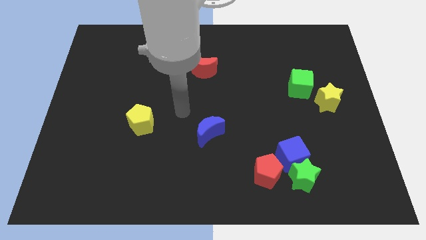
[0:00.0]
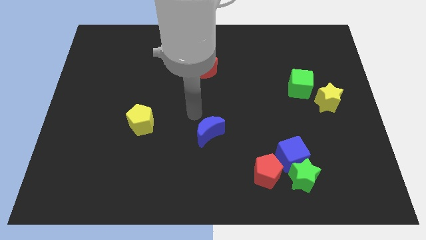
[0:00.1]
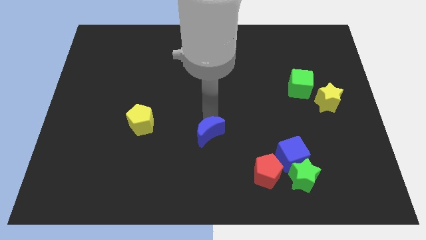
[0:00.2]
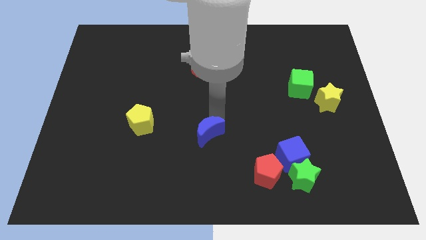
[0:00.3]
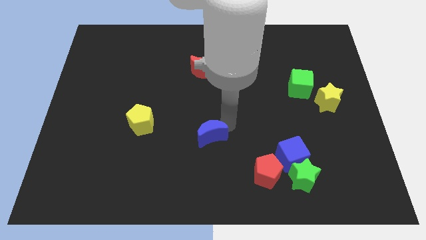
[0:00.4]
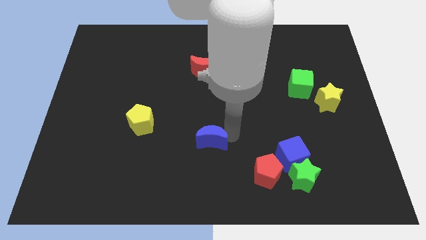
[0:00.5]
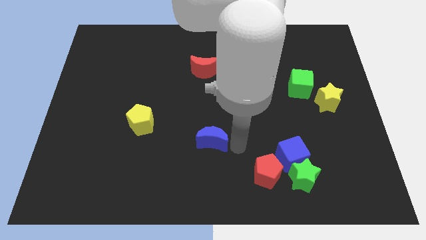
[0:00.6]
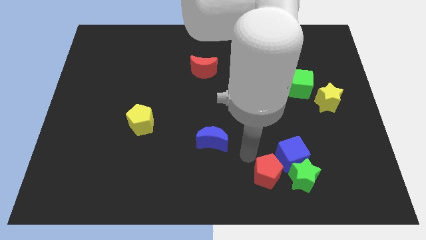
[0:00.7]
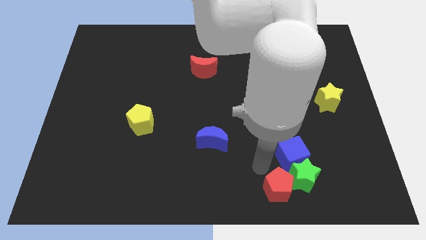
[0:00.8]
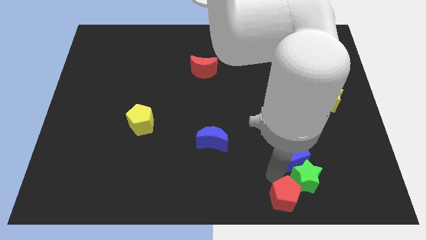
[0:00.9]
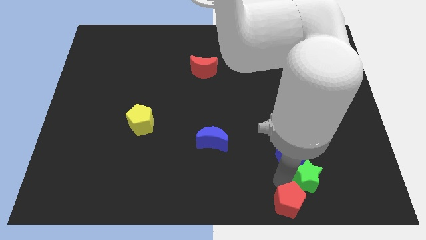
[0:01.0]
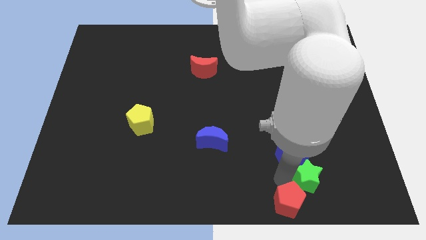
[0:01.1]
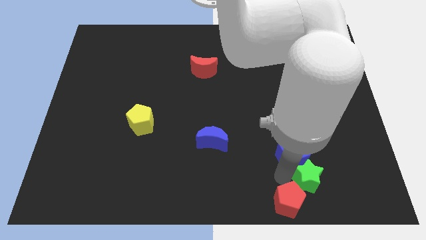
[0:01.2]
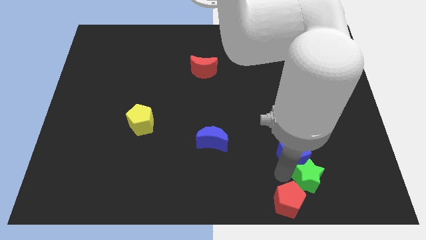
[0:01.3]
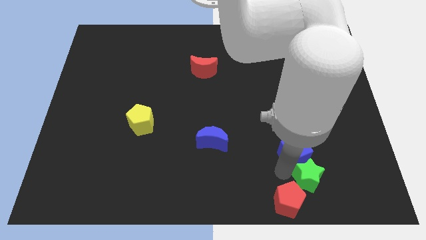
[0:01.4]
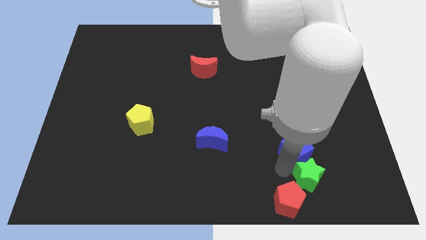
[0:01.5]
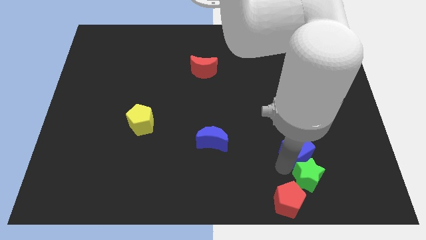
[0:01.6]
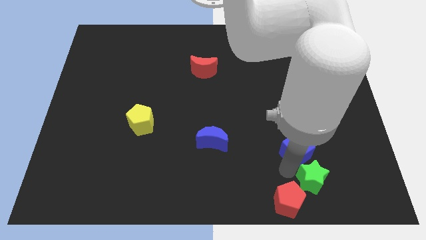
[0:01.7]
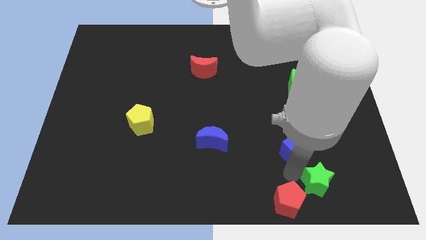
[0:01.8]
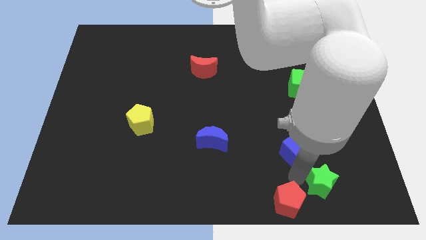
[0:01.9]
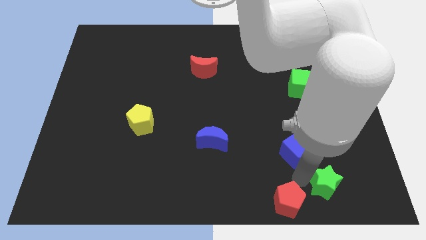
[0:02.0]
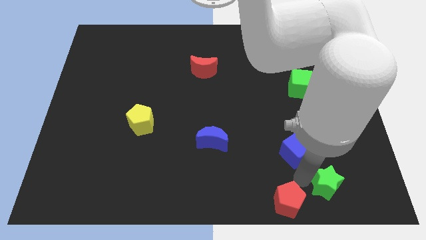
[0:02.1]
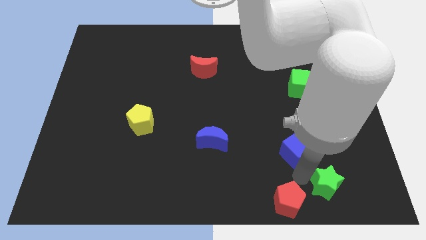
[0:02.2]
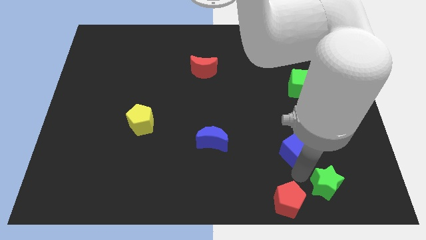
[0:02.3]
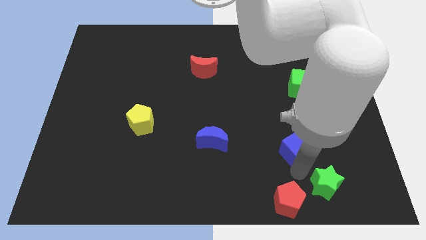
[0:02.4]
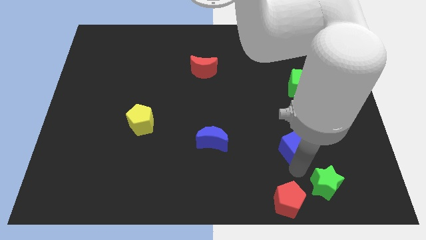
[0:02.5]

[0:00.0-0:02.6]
pull the blue cube apart from the green star and red pentagon

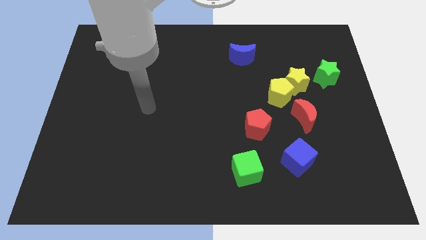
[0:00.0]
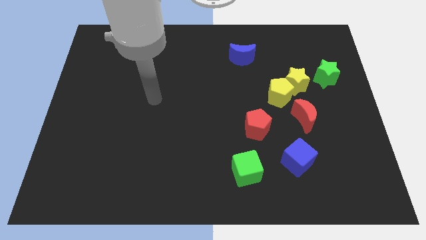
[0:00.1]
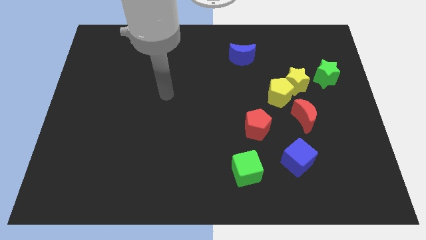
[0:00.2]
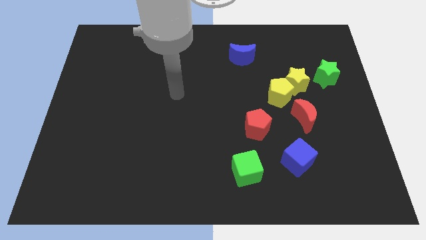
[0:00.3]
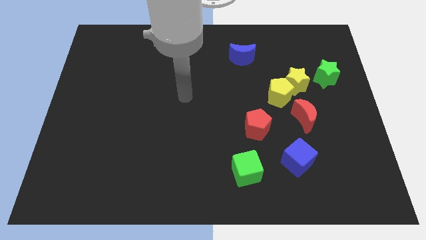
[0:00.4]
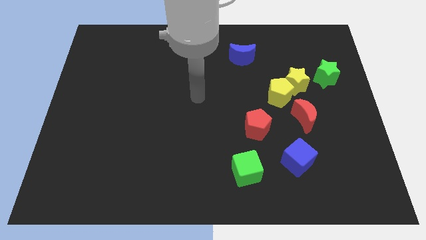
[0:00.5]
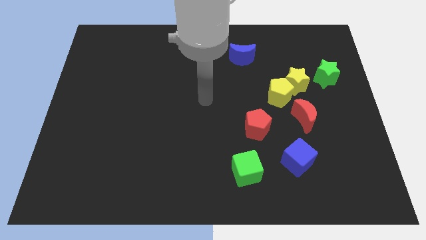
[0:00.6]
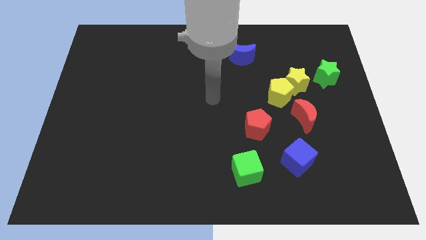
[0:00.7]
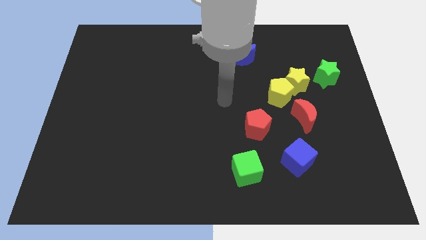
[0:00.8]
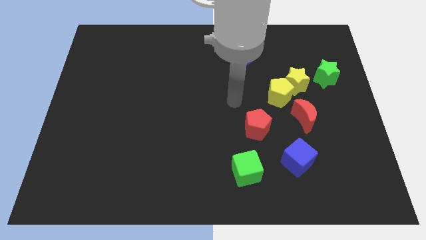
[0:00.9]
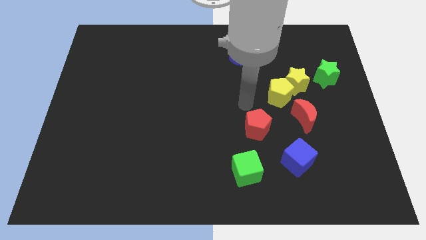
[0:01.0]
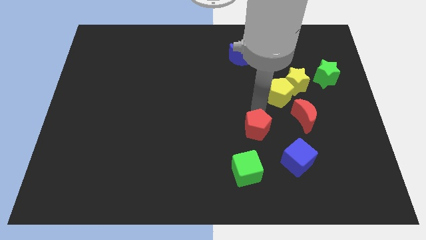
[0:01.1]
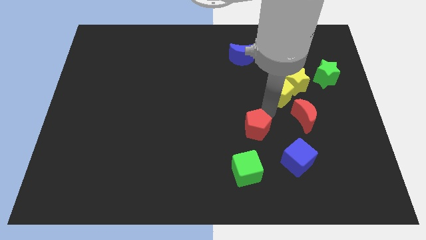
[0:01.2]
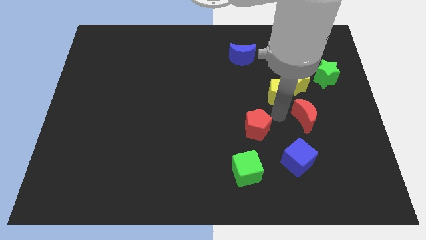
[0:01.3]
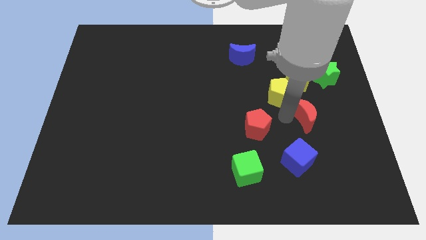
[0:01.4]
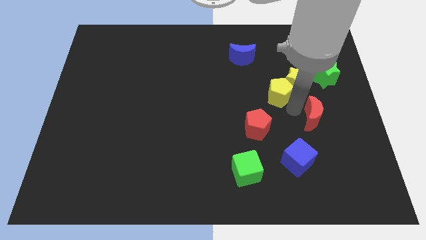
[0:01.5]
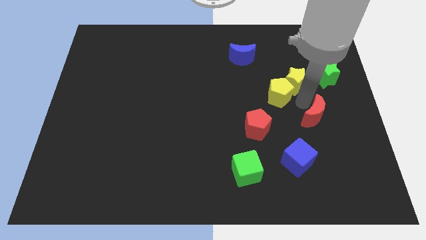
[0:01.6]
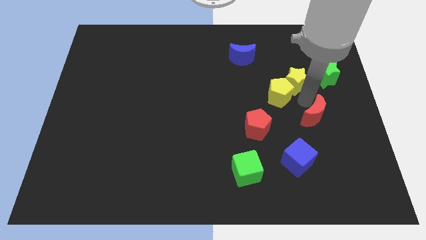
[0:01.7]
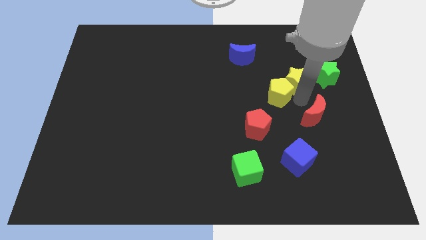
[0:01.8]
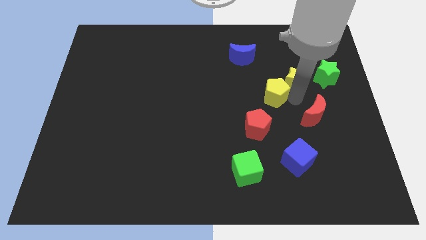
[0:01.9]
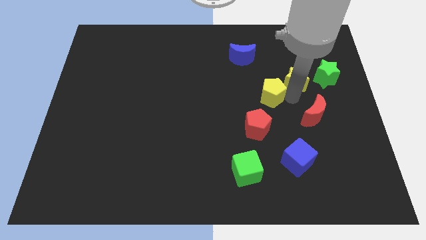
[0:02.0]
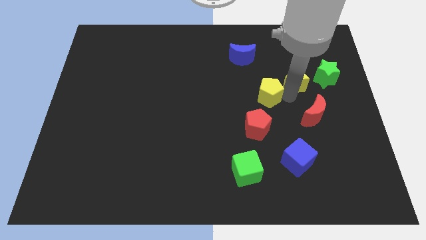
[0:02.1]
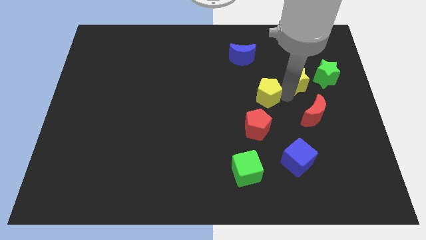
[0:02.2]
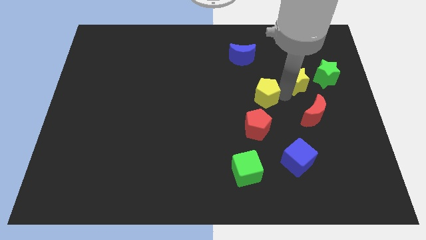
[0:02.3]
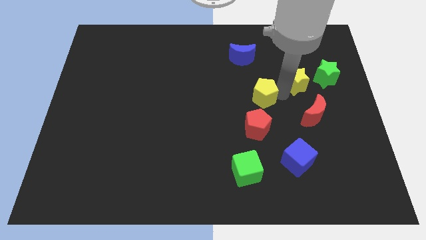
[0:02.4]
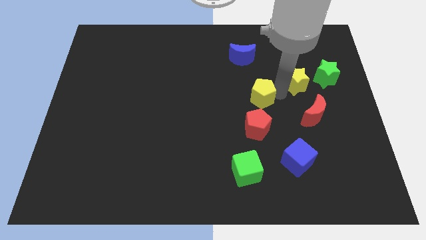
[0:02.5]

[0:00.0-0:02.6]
move the yellow pentagon away from the yellow star and red moon

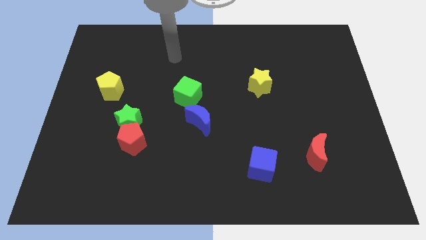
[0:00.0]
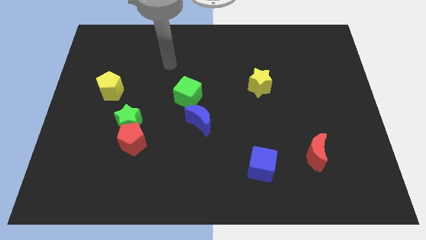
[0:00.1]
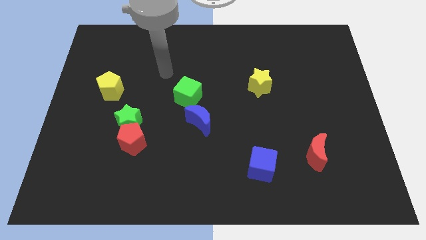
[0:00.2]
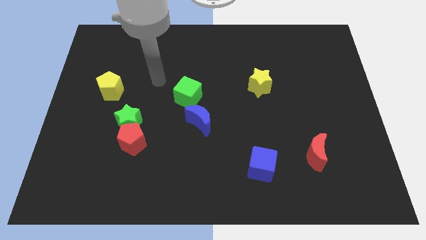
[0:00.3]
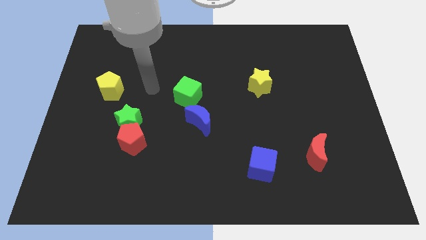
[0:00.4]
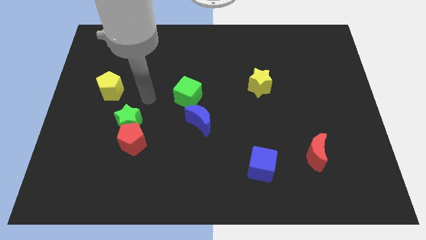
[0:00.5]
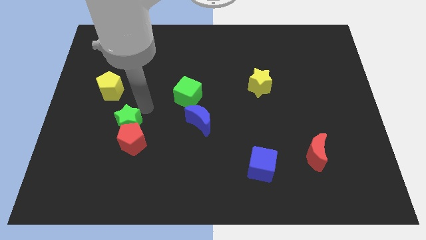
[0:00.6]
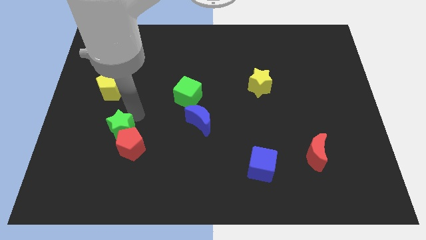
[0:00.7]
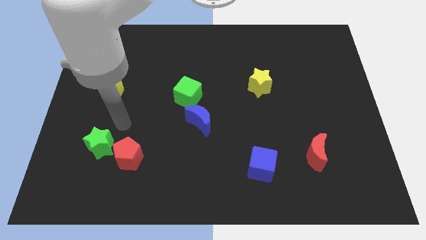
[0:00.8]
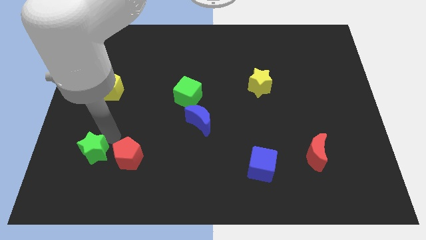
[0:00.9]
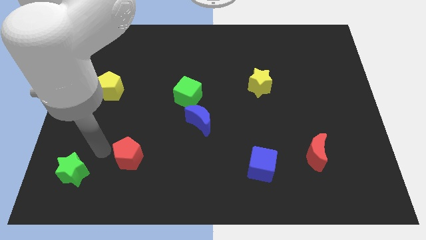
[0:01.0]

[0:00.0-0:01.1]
pull the red pentagon apart from the green star

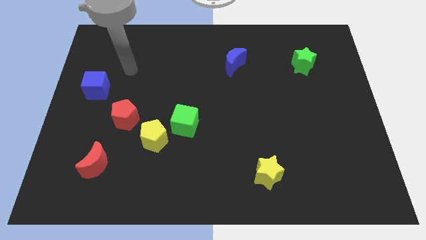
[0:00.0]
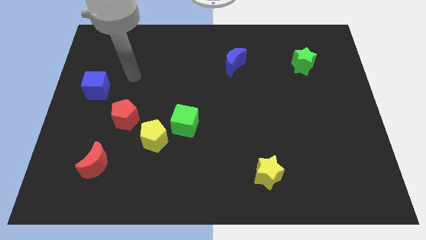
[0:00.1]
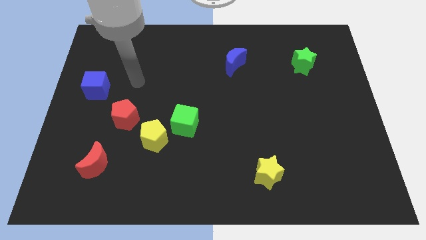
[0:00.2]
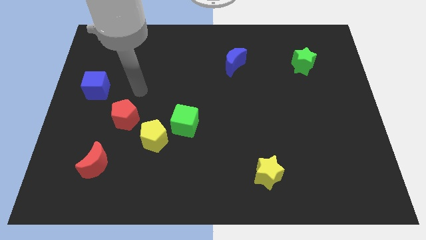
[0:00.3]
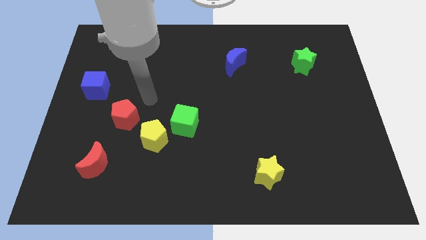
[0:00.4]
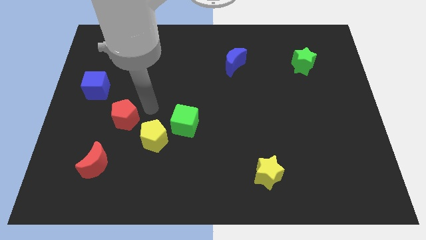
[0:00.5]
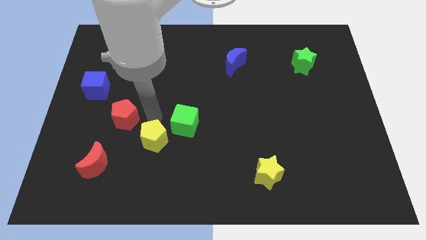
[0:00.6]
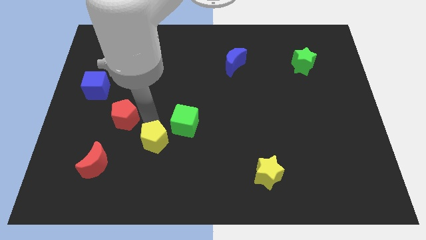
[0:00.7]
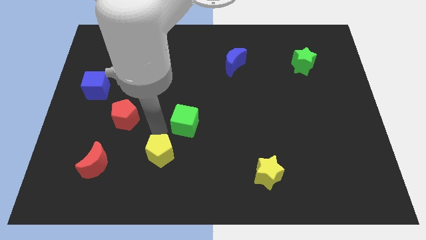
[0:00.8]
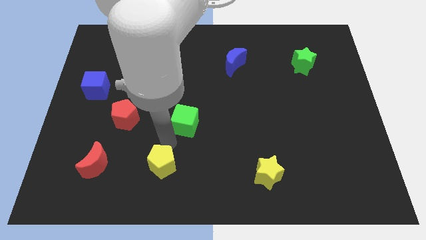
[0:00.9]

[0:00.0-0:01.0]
separate the green cube from the yellow pentagon

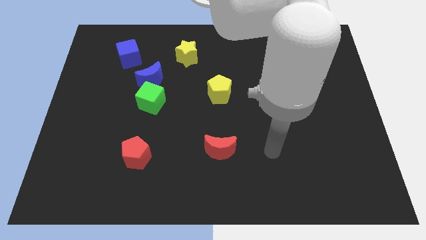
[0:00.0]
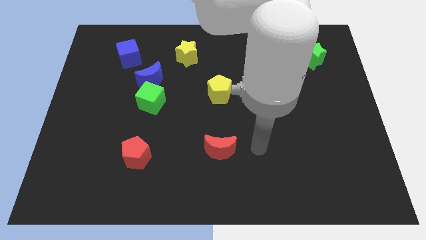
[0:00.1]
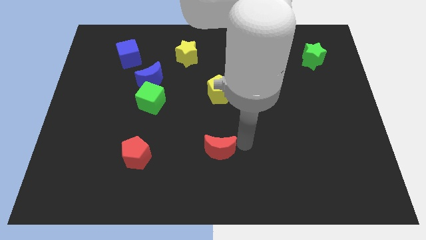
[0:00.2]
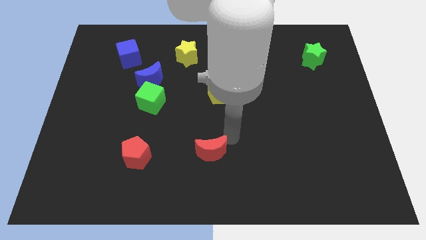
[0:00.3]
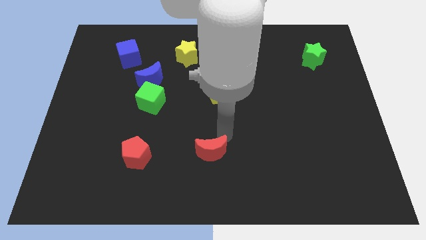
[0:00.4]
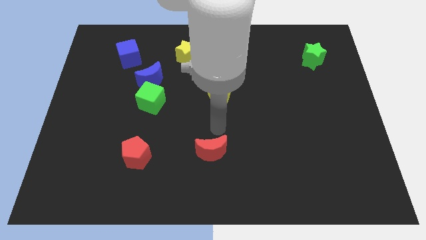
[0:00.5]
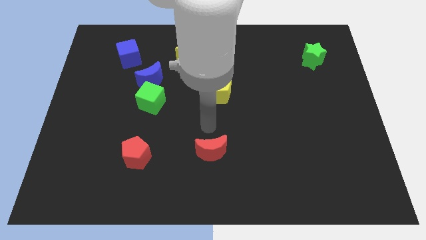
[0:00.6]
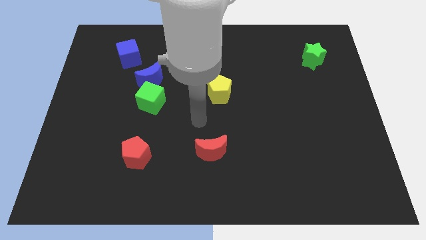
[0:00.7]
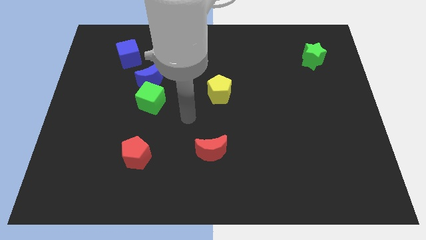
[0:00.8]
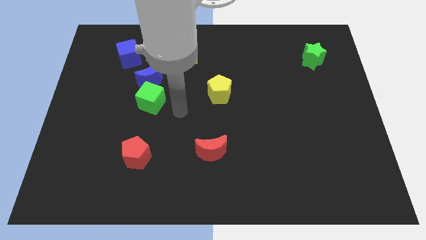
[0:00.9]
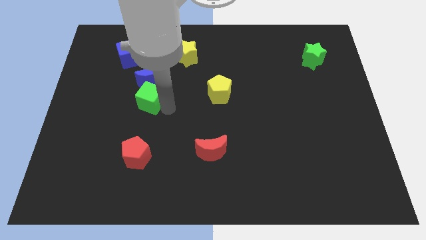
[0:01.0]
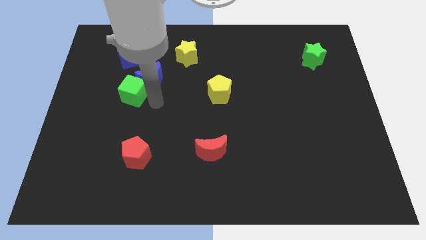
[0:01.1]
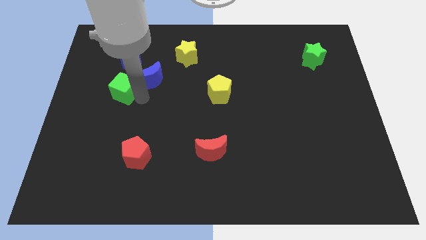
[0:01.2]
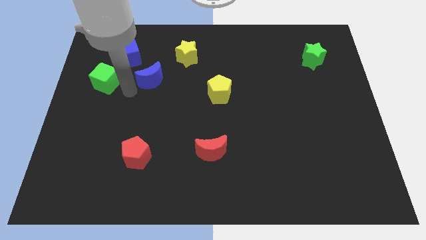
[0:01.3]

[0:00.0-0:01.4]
separate the blue moon from the green cube

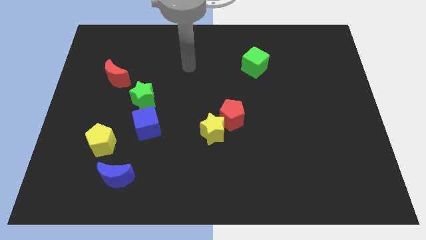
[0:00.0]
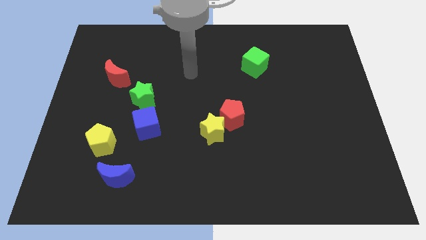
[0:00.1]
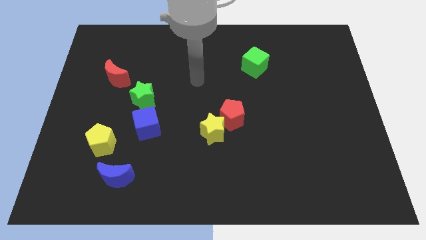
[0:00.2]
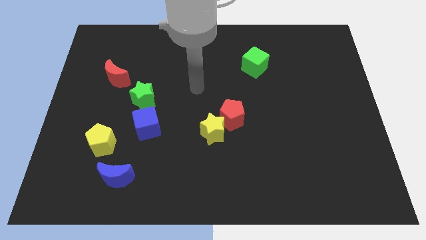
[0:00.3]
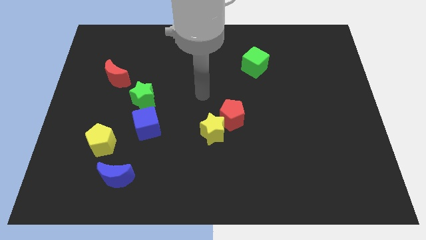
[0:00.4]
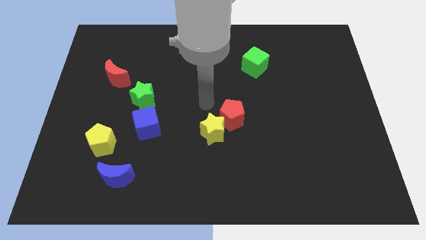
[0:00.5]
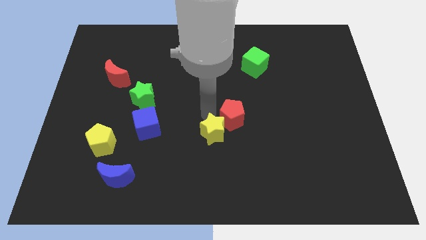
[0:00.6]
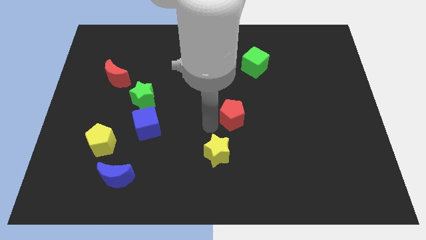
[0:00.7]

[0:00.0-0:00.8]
separate the red pentagon from the yellow star
